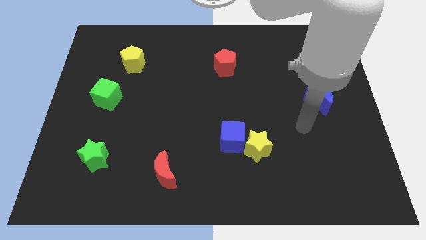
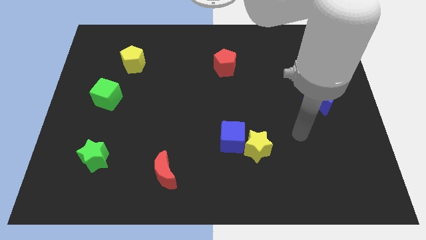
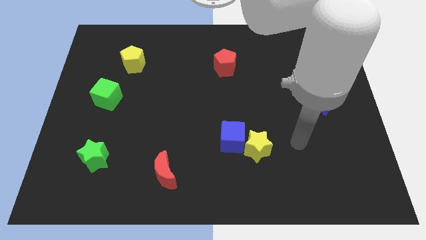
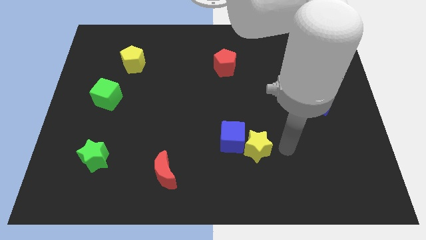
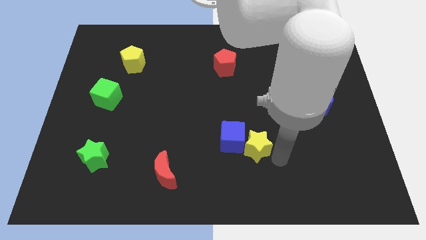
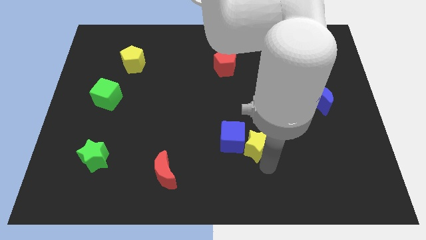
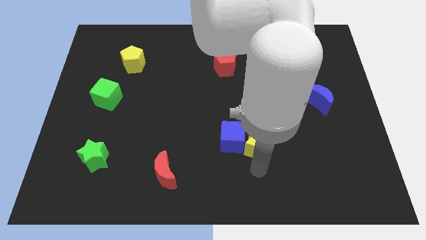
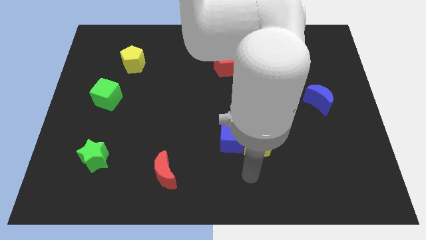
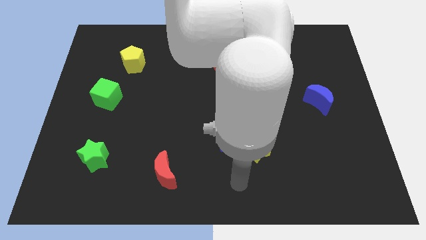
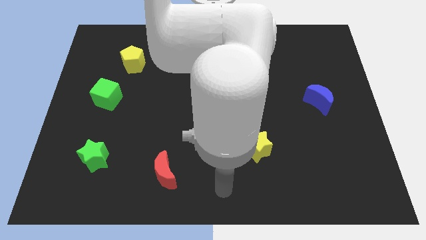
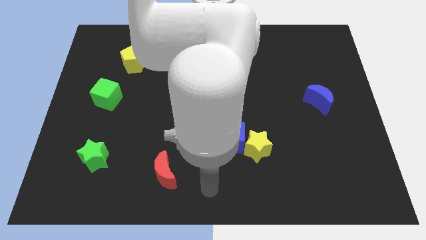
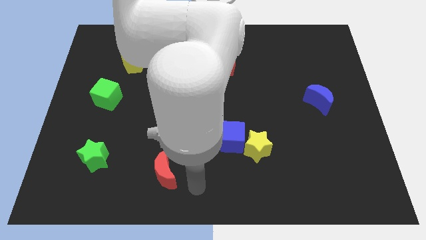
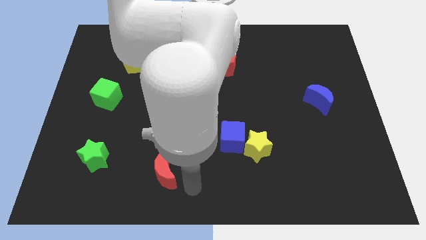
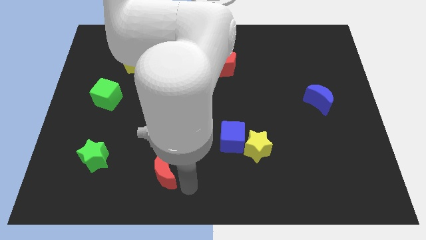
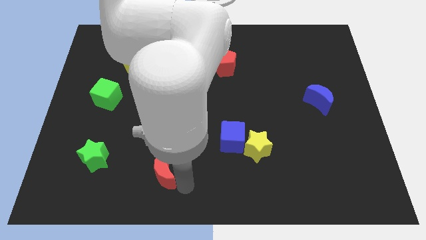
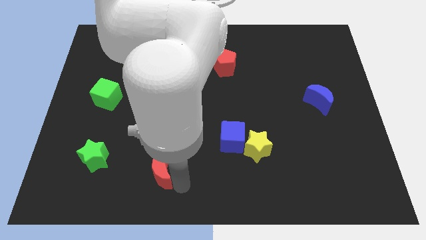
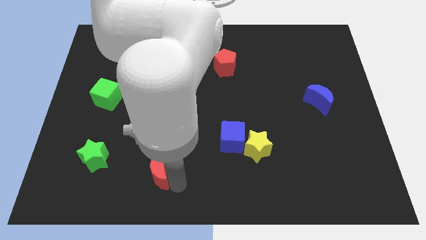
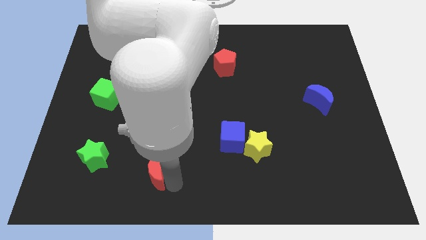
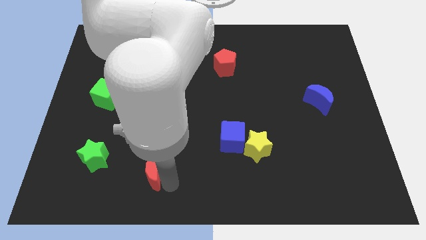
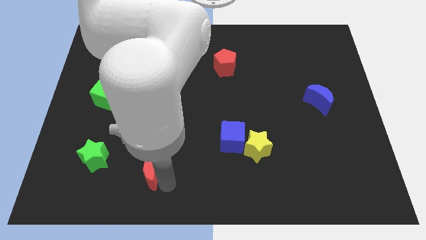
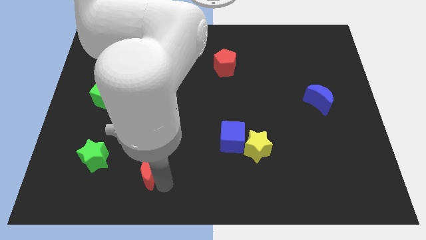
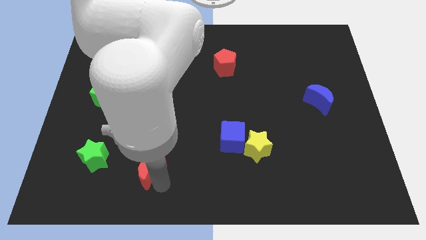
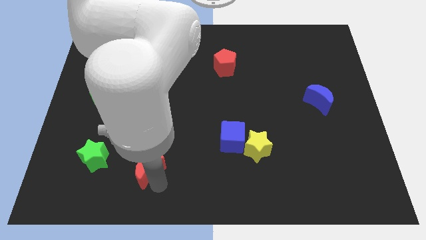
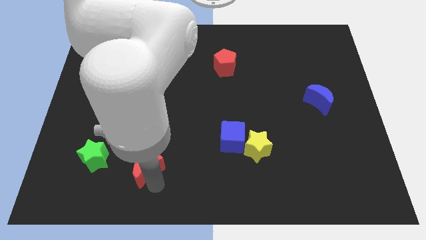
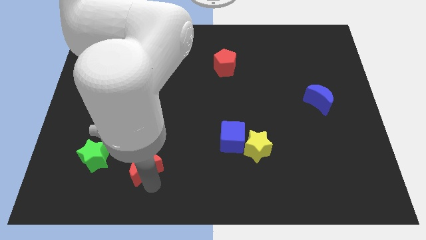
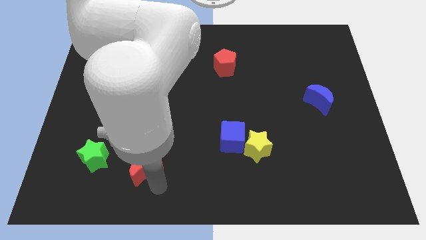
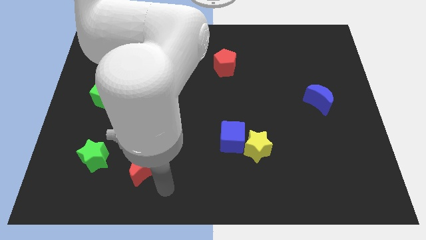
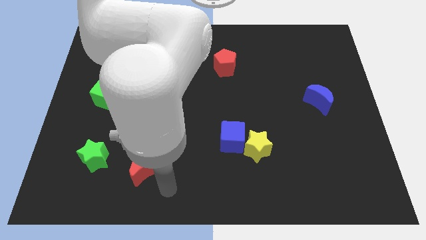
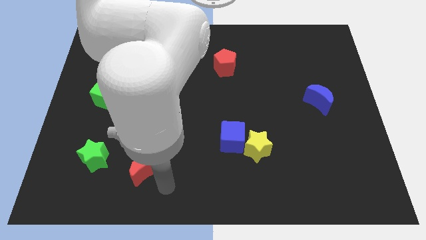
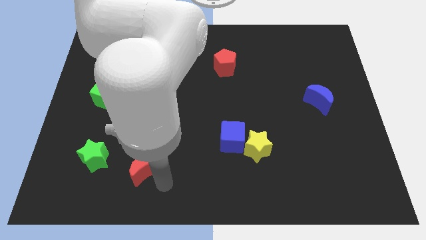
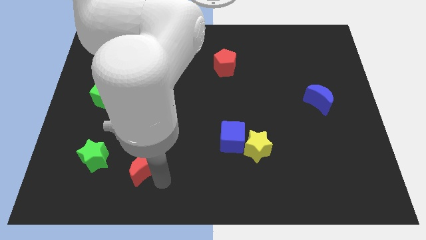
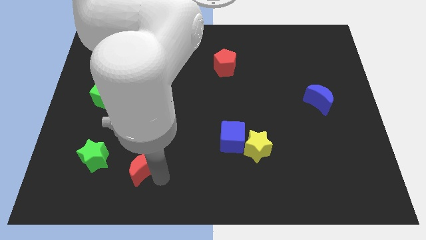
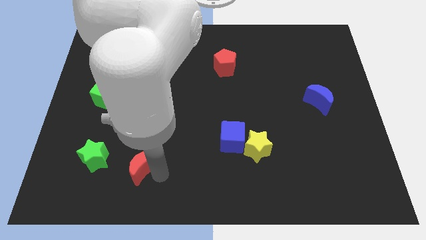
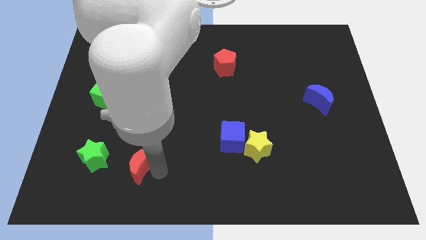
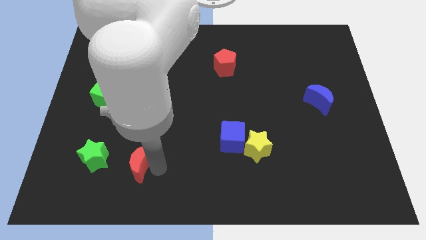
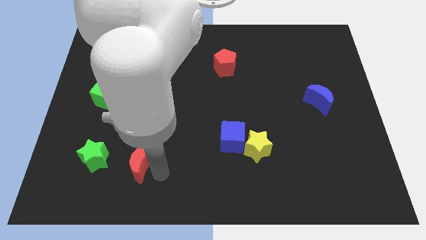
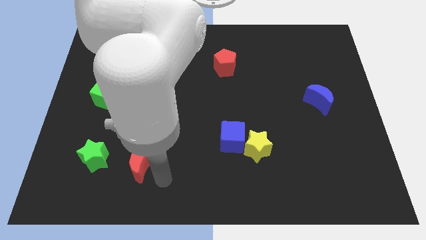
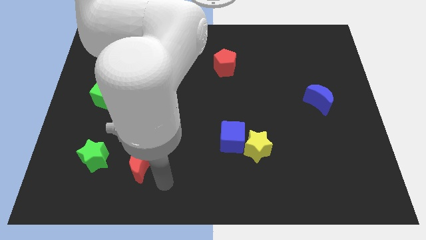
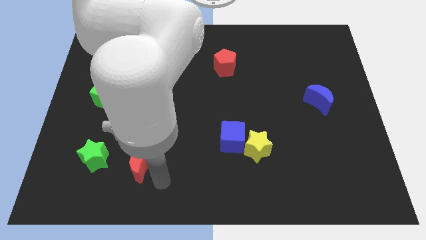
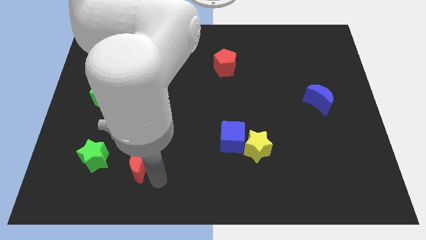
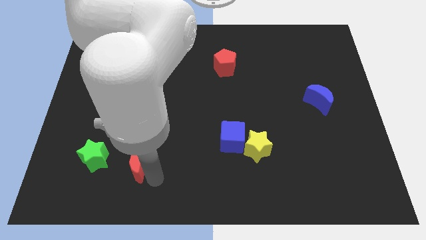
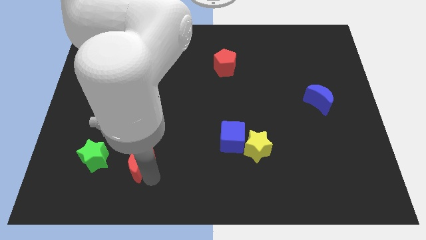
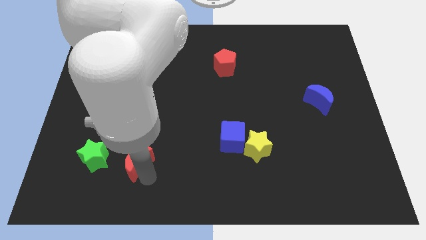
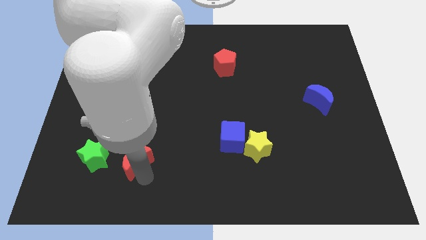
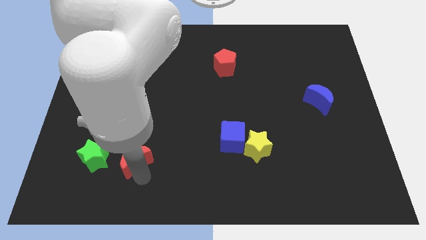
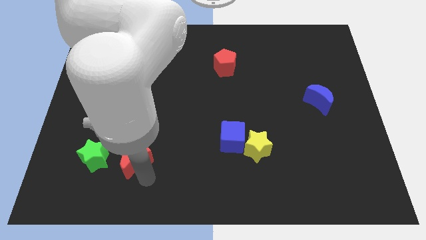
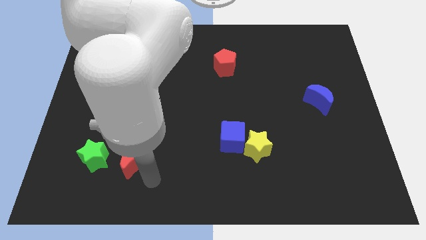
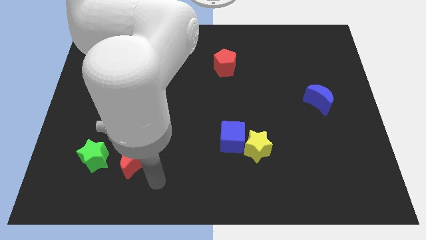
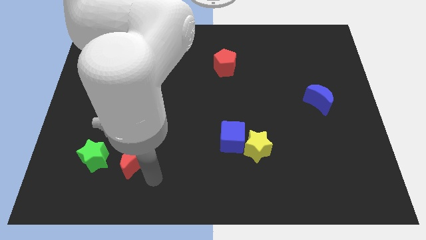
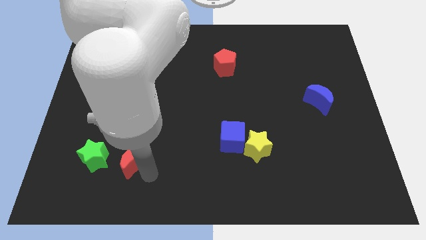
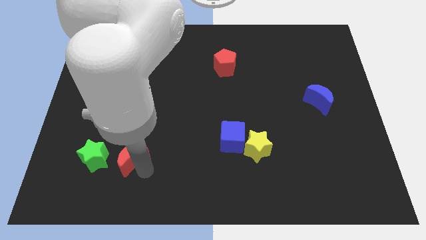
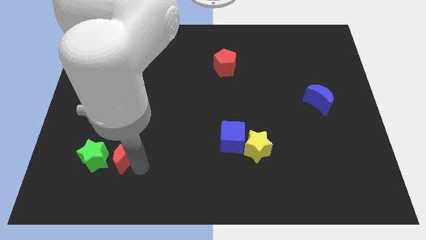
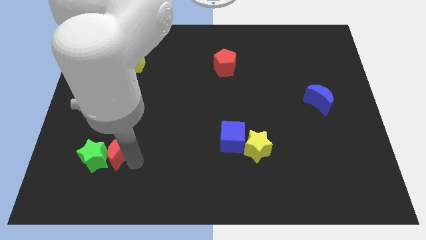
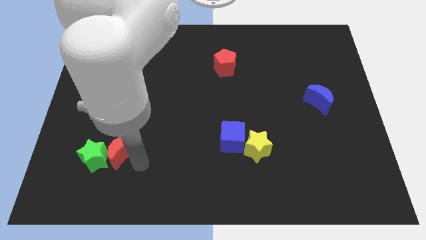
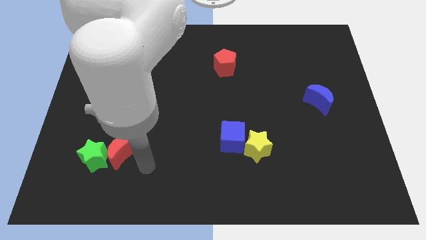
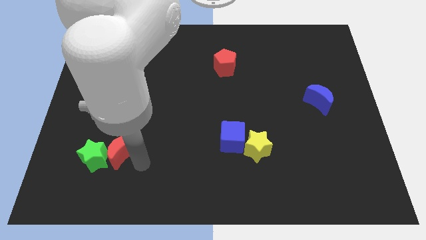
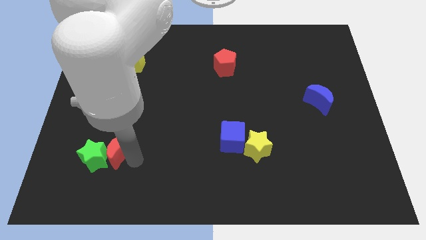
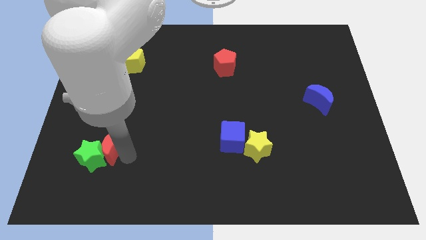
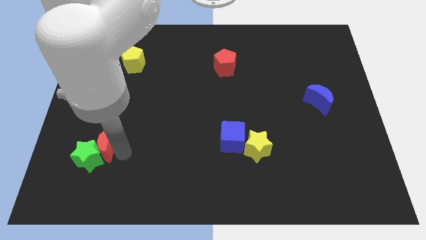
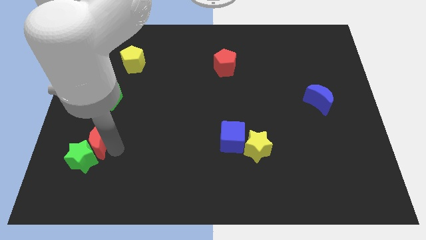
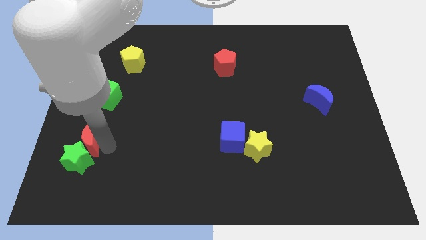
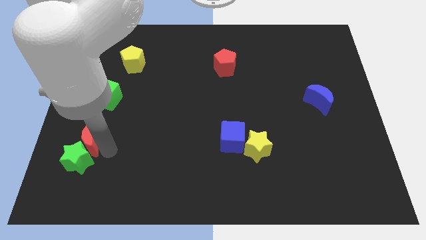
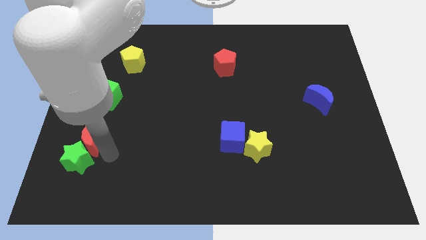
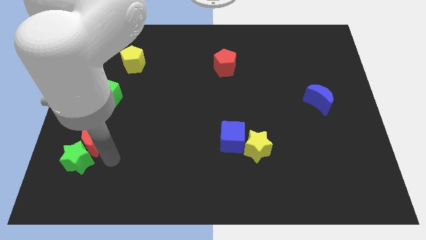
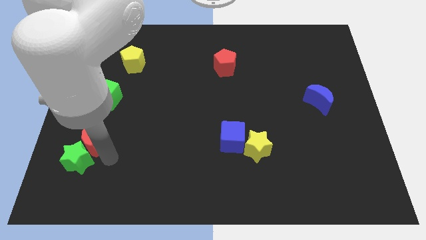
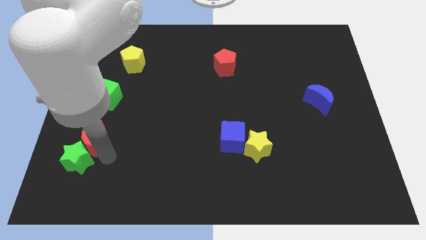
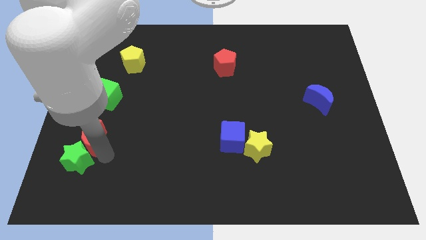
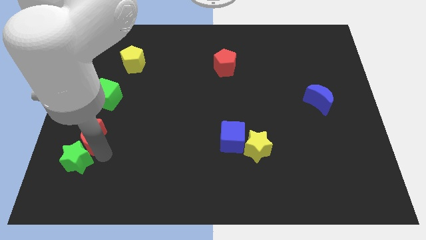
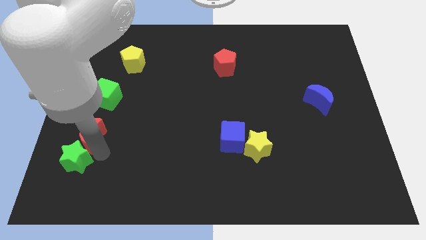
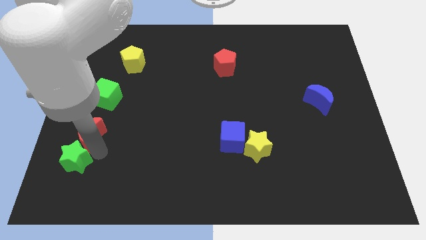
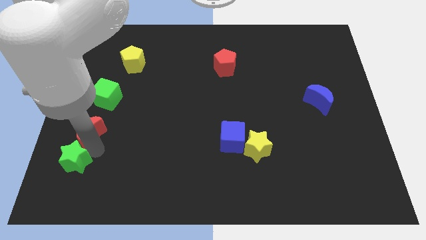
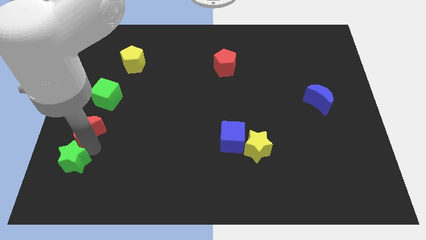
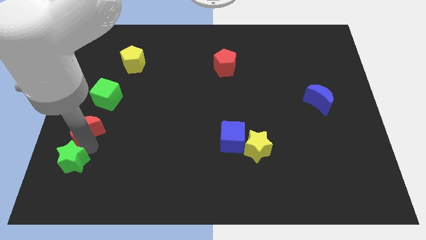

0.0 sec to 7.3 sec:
put the red moon to the left side of the board
